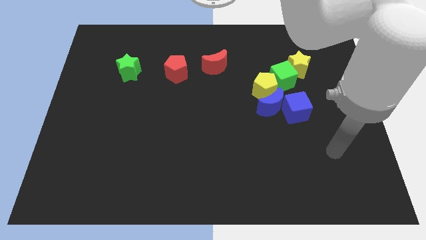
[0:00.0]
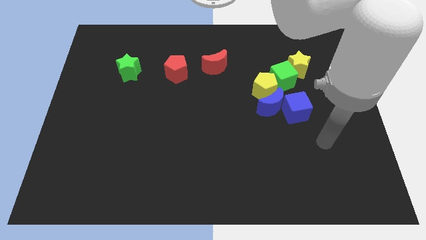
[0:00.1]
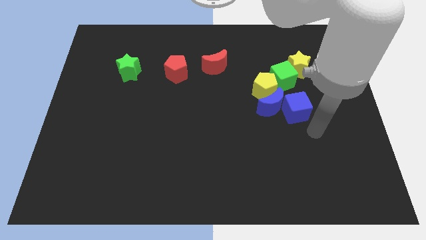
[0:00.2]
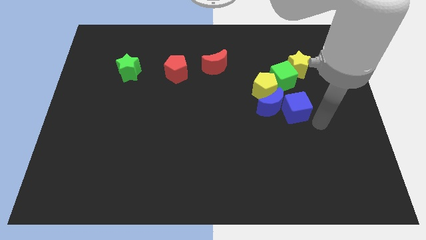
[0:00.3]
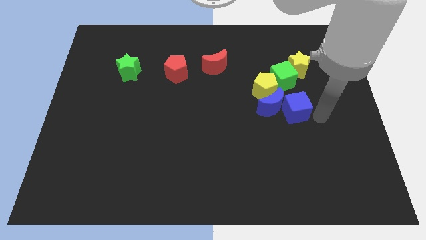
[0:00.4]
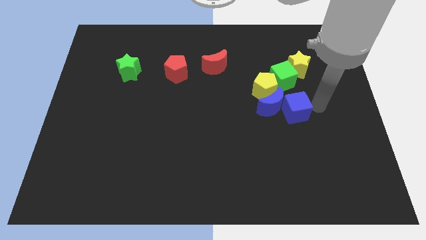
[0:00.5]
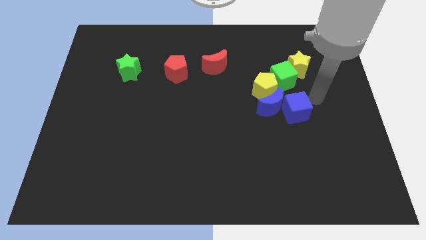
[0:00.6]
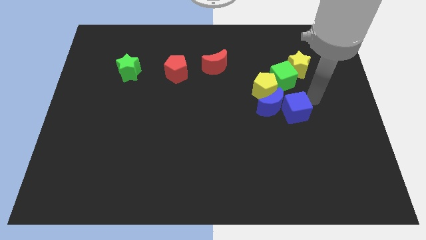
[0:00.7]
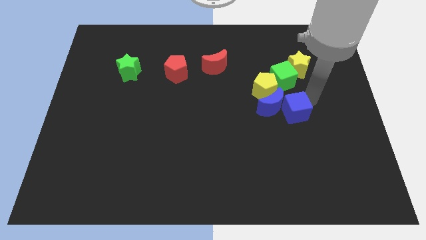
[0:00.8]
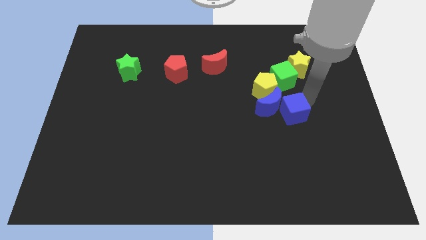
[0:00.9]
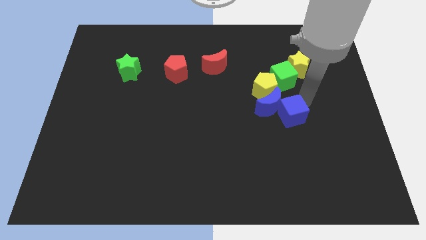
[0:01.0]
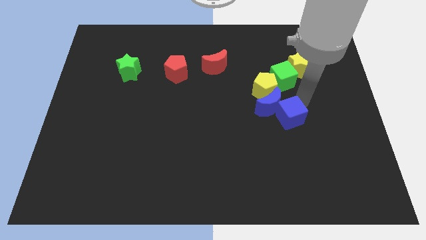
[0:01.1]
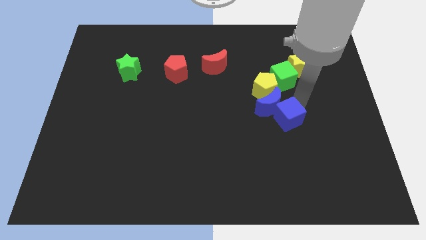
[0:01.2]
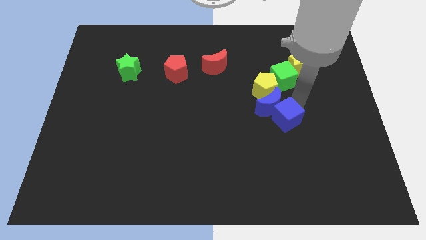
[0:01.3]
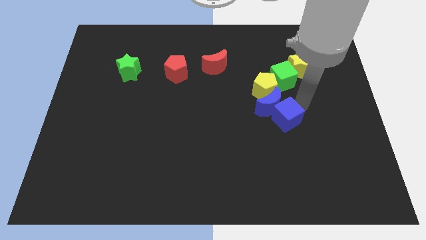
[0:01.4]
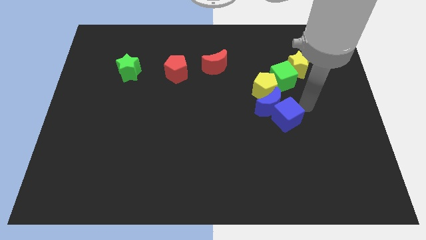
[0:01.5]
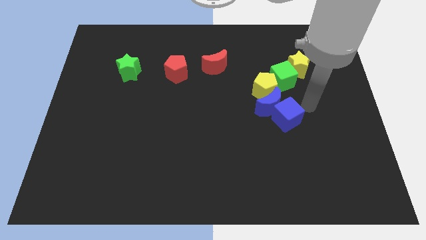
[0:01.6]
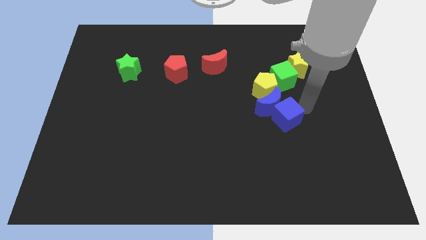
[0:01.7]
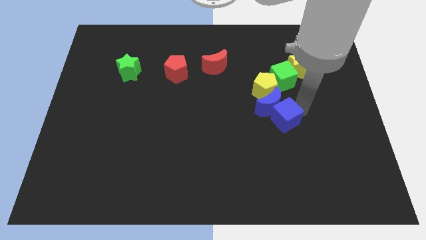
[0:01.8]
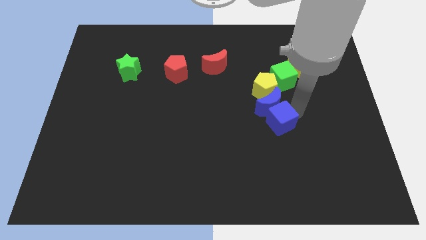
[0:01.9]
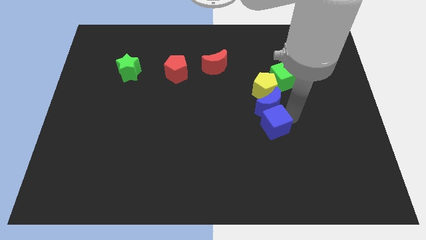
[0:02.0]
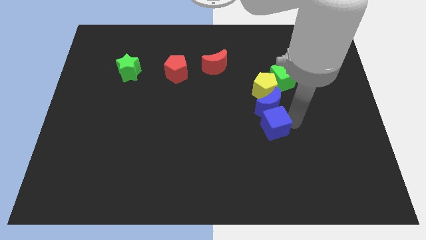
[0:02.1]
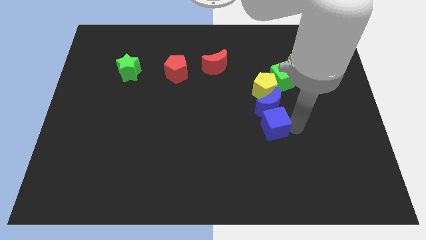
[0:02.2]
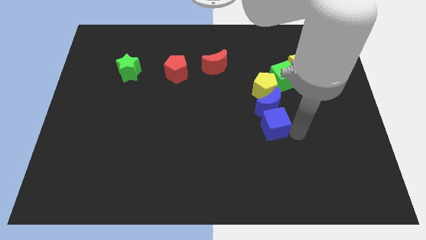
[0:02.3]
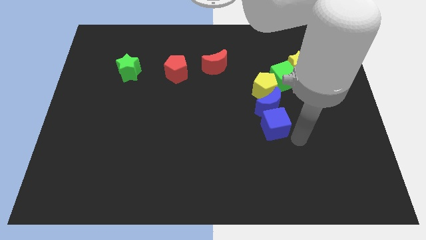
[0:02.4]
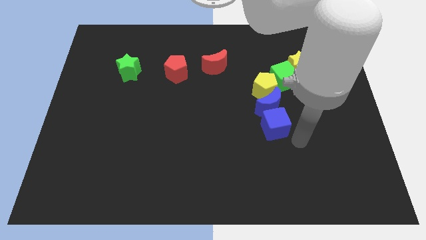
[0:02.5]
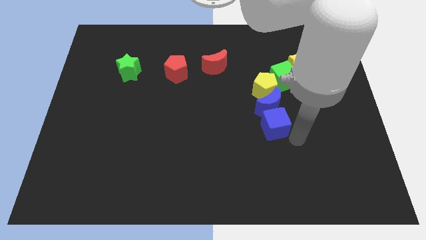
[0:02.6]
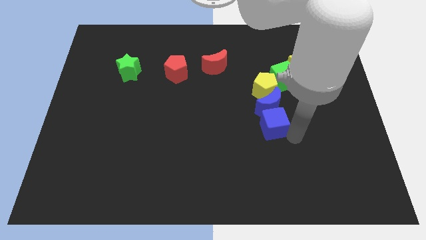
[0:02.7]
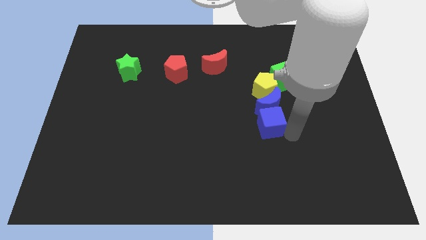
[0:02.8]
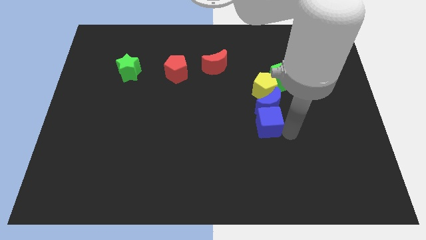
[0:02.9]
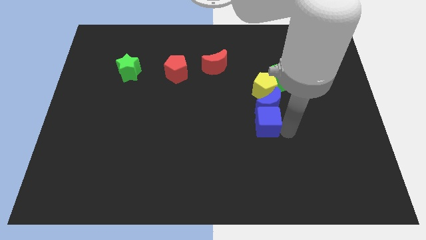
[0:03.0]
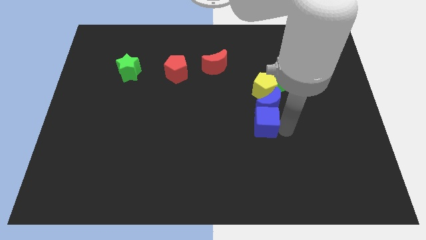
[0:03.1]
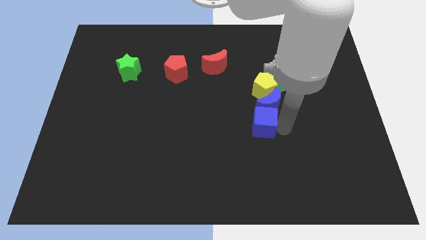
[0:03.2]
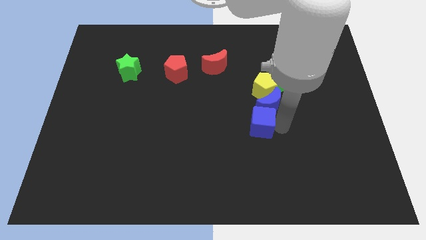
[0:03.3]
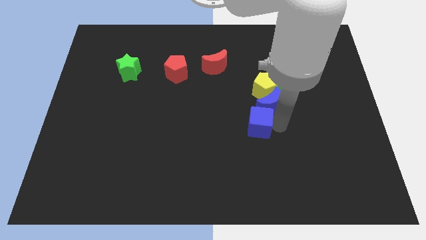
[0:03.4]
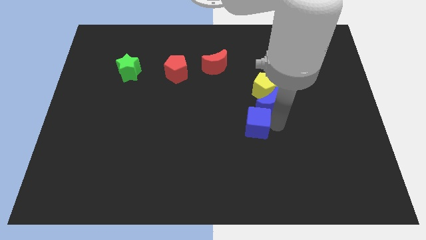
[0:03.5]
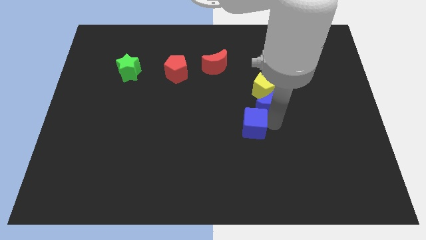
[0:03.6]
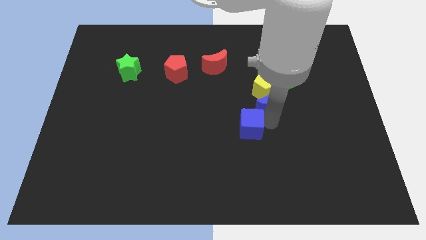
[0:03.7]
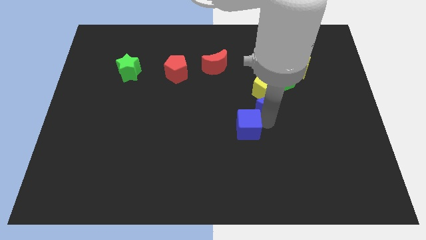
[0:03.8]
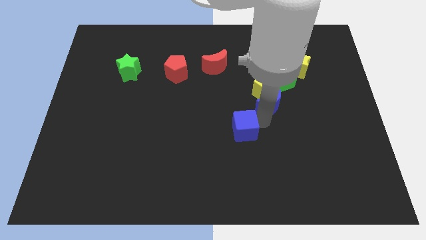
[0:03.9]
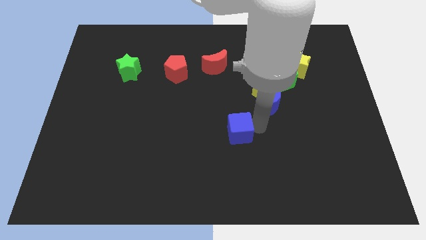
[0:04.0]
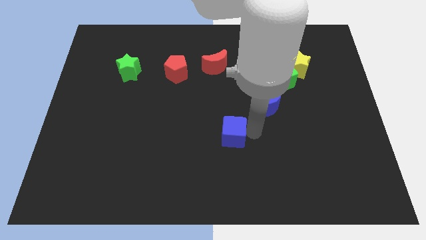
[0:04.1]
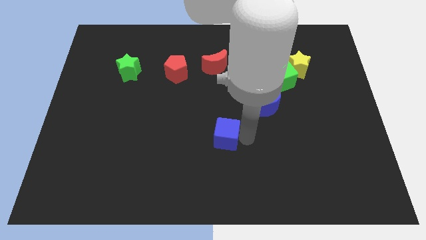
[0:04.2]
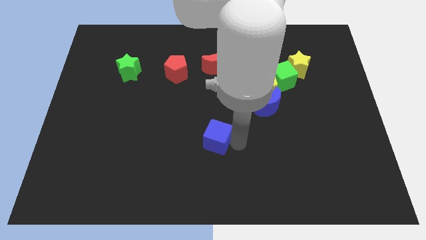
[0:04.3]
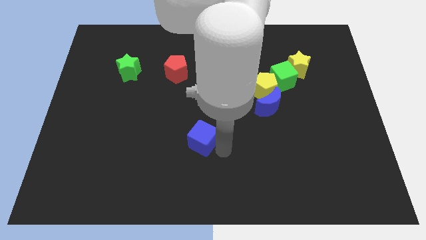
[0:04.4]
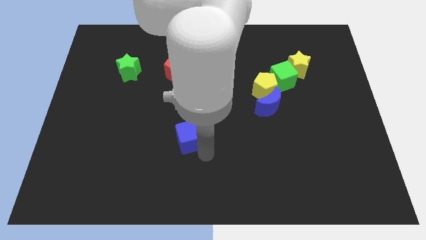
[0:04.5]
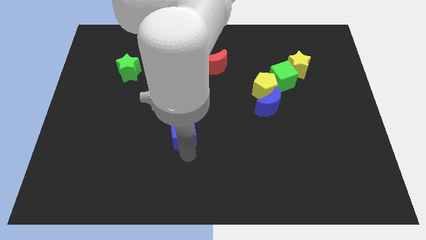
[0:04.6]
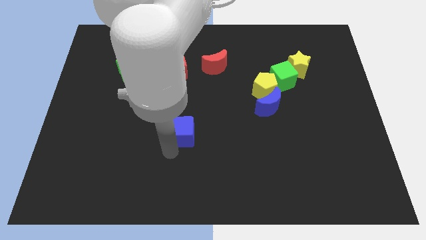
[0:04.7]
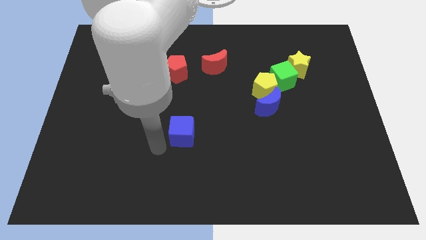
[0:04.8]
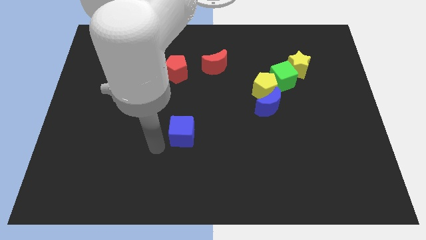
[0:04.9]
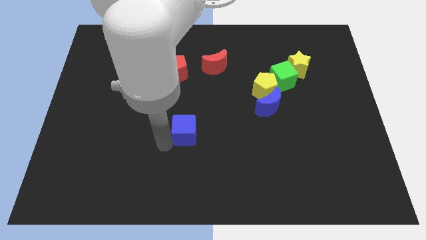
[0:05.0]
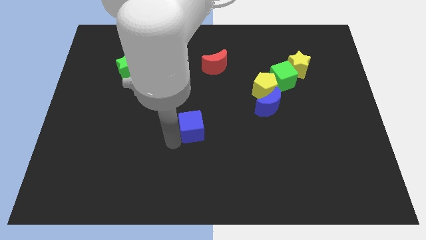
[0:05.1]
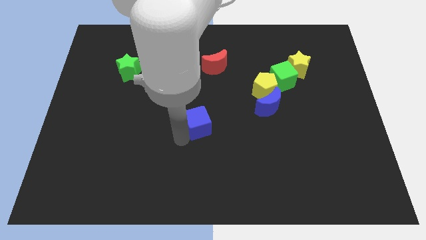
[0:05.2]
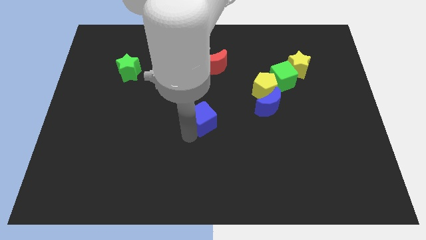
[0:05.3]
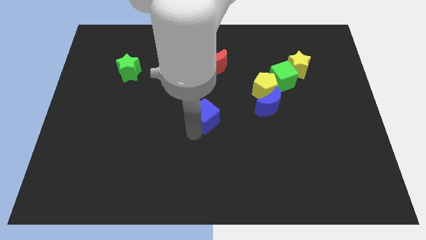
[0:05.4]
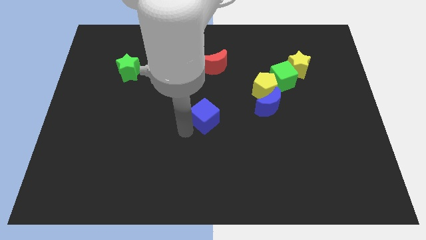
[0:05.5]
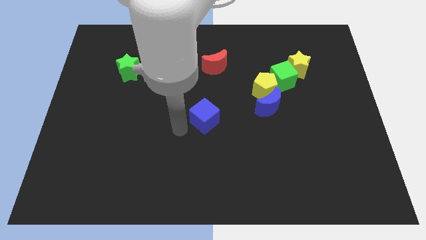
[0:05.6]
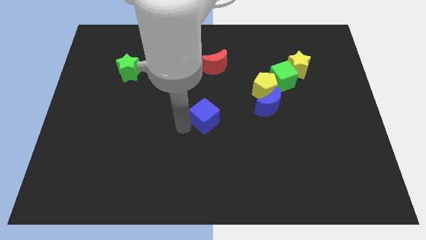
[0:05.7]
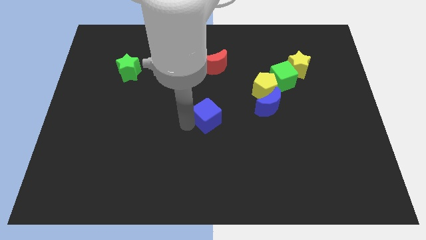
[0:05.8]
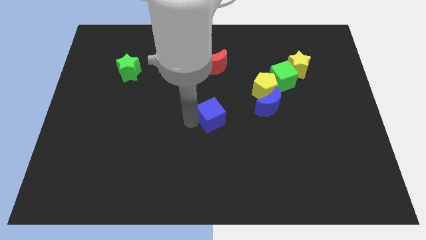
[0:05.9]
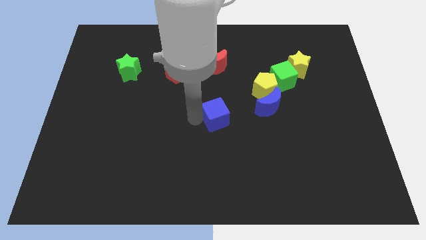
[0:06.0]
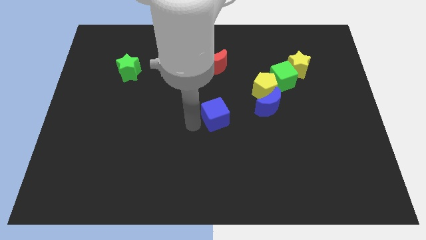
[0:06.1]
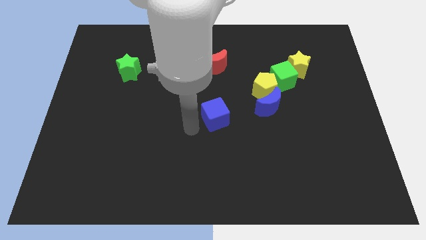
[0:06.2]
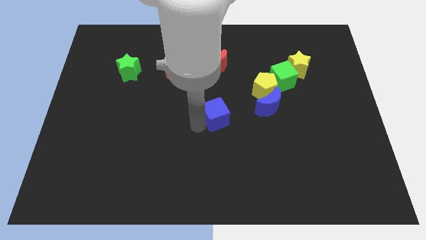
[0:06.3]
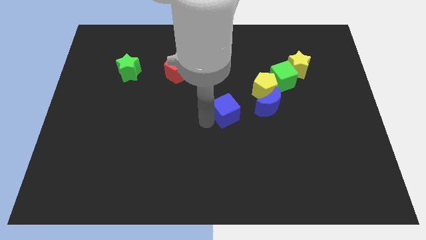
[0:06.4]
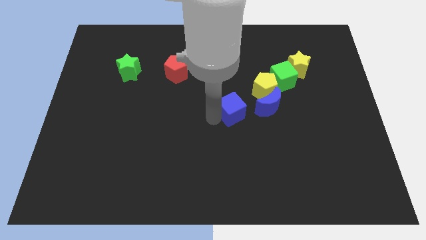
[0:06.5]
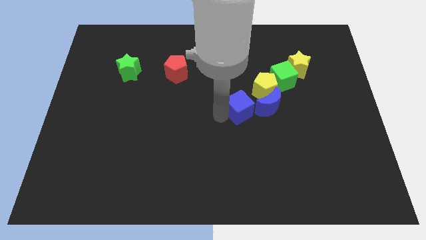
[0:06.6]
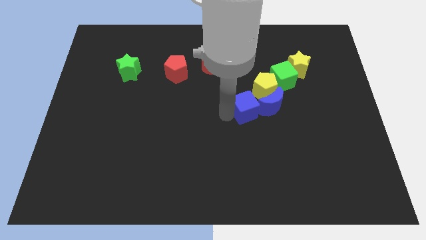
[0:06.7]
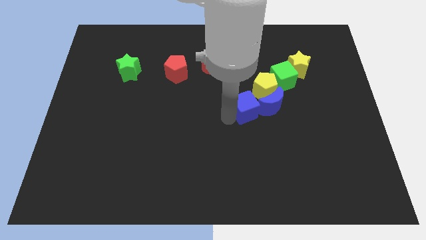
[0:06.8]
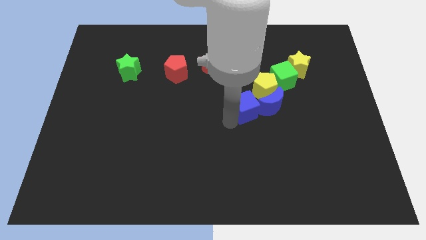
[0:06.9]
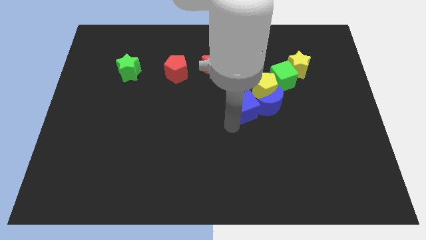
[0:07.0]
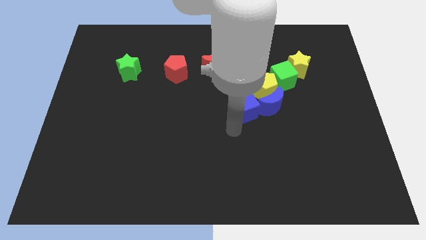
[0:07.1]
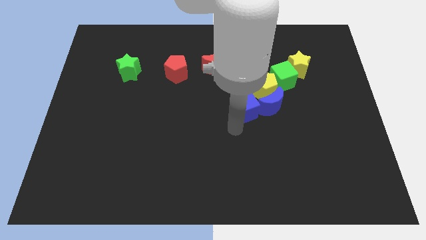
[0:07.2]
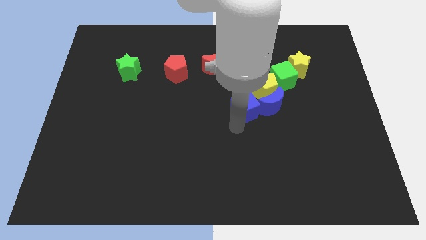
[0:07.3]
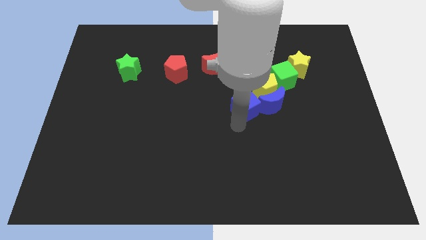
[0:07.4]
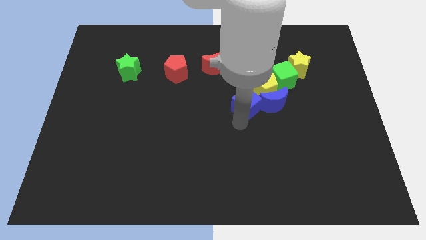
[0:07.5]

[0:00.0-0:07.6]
push the blue cube up and then to the left a little

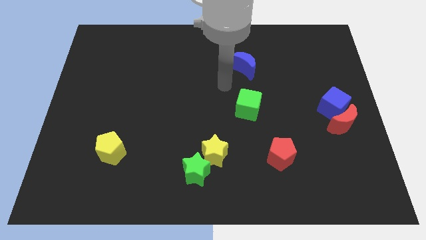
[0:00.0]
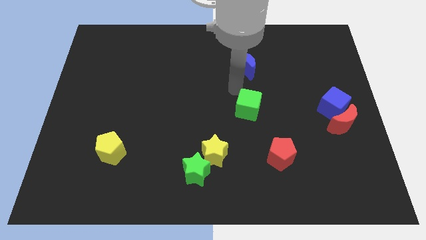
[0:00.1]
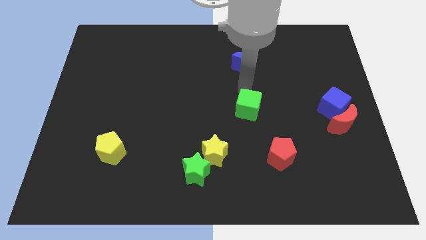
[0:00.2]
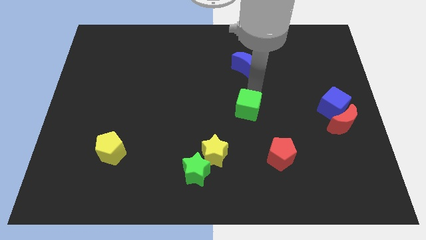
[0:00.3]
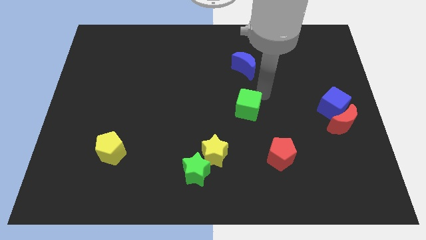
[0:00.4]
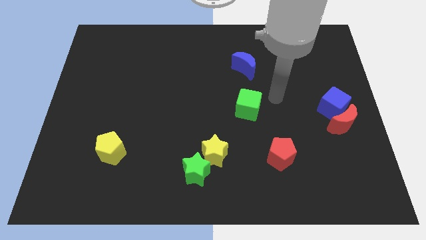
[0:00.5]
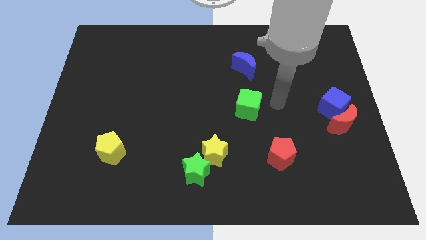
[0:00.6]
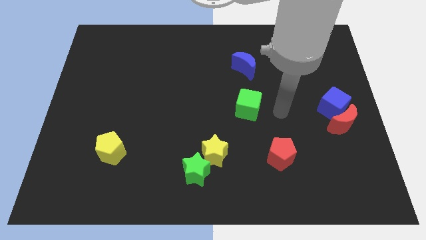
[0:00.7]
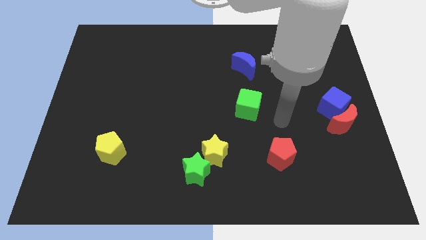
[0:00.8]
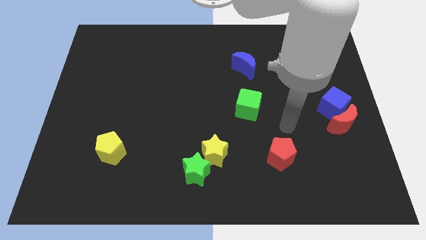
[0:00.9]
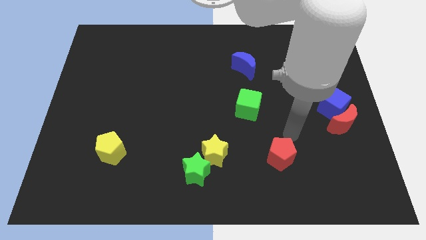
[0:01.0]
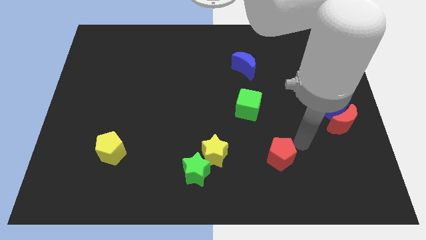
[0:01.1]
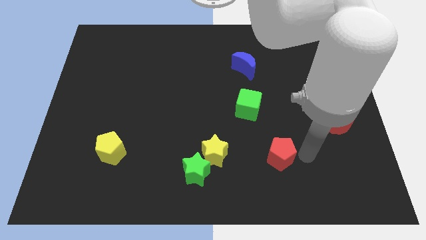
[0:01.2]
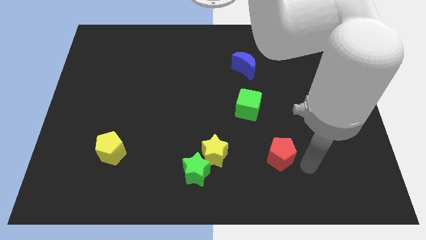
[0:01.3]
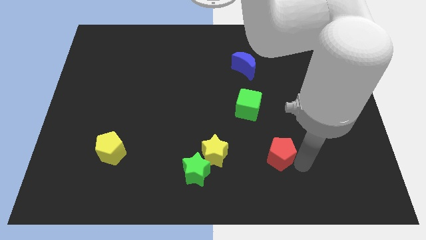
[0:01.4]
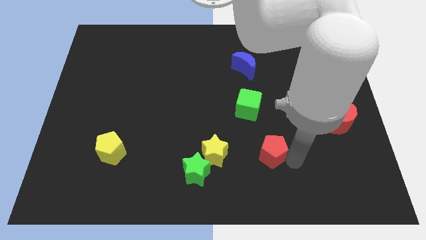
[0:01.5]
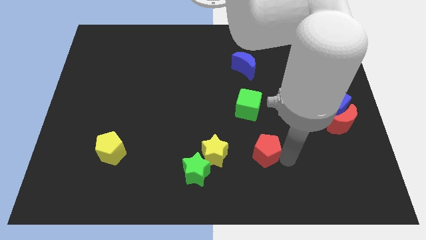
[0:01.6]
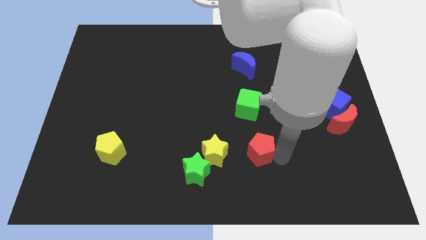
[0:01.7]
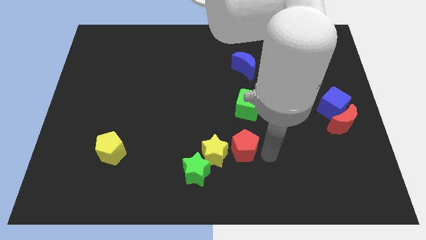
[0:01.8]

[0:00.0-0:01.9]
move the red pentagon left slightly
